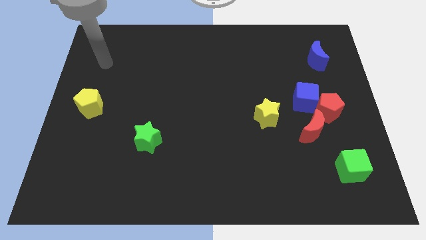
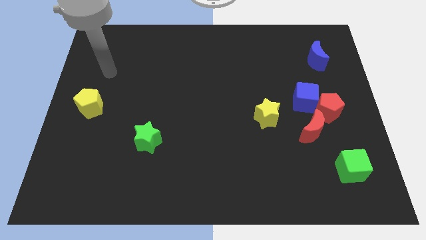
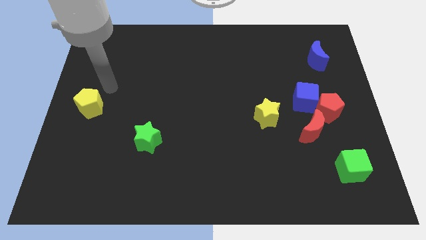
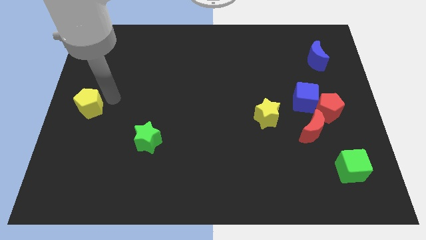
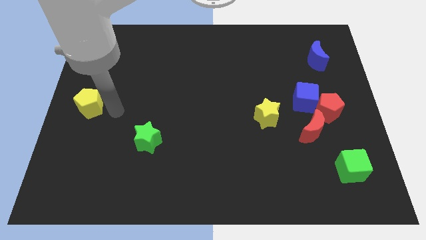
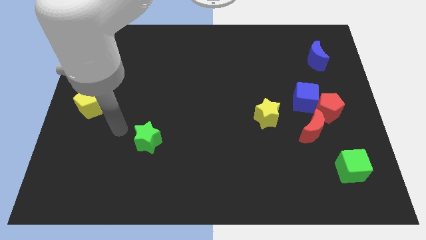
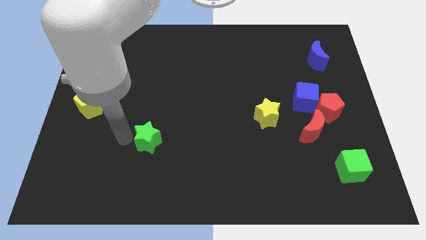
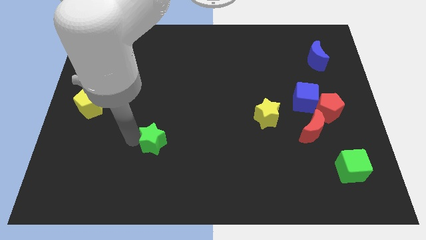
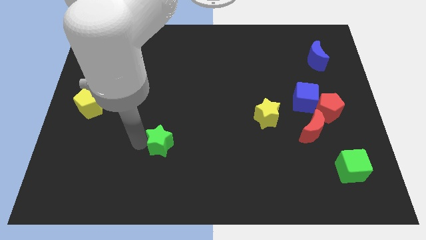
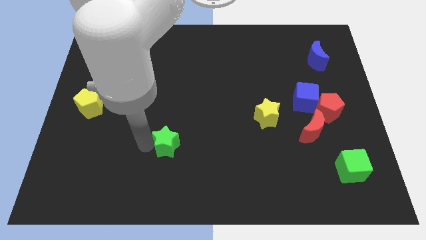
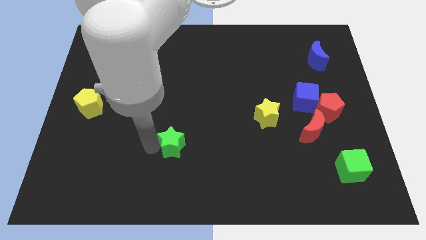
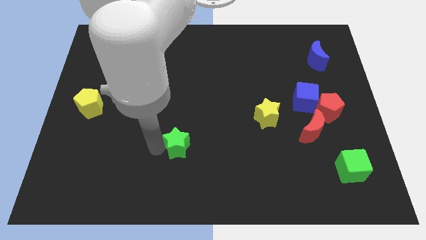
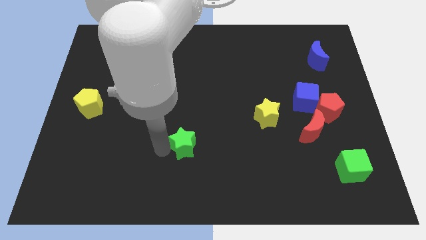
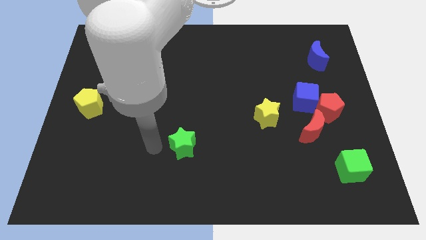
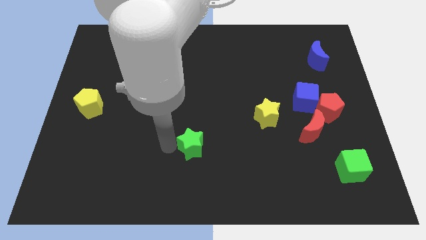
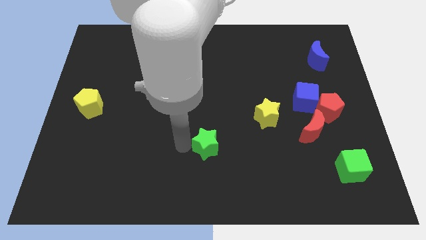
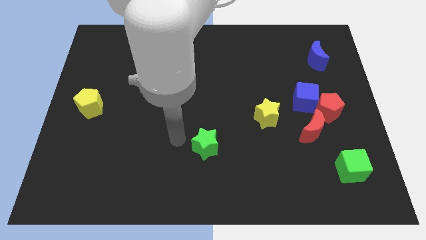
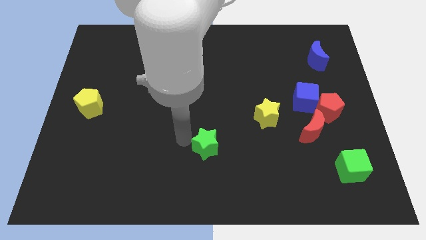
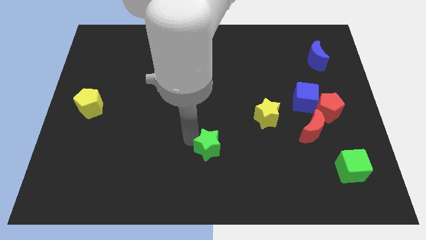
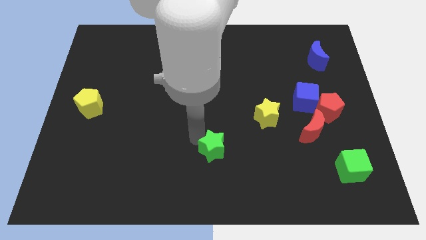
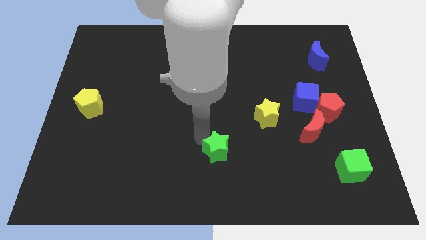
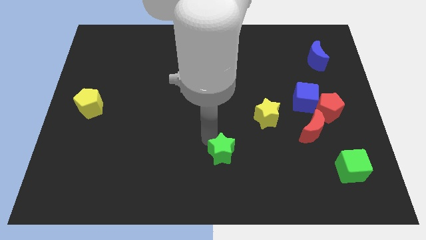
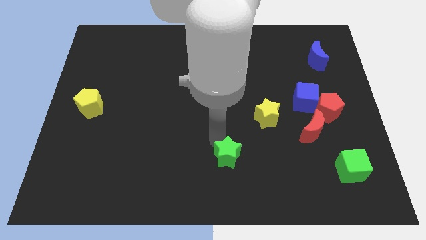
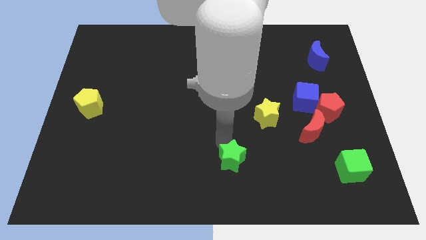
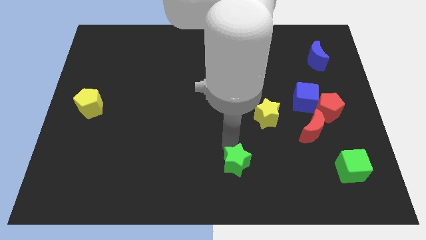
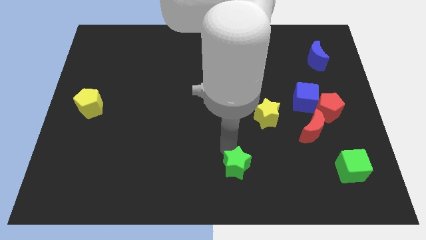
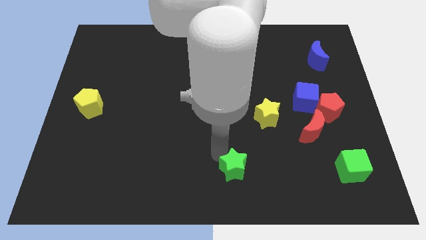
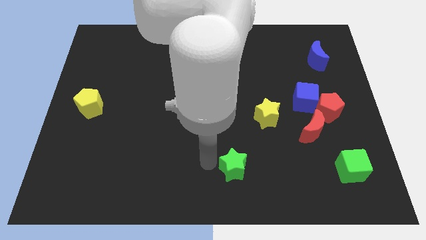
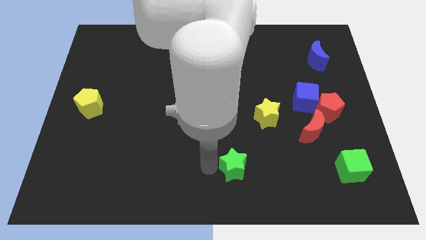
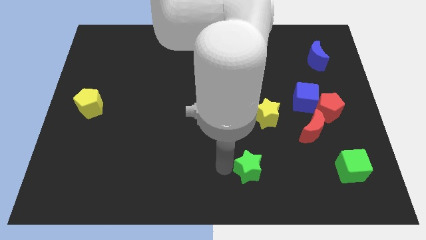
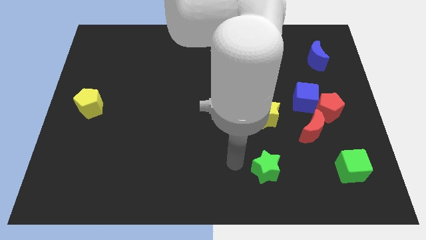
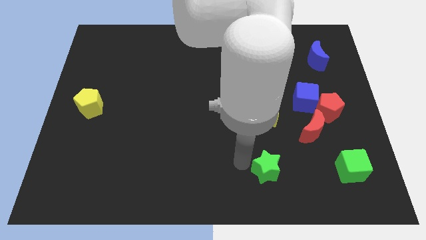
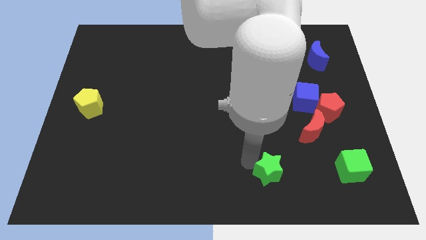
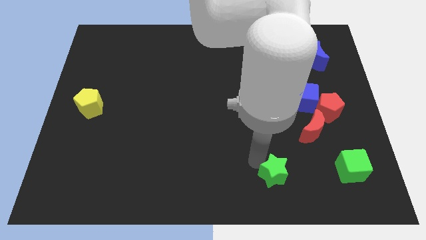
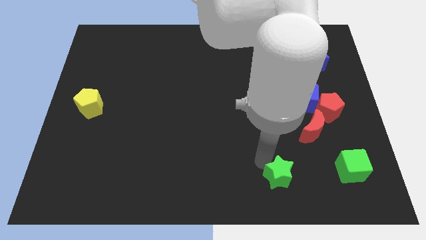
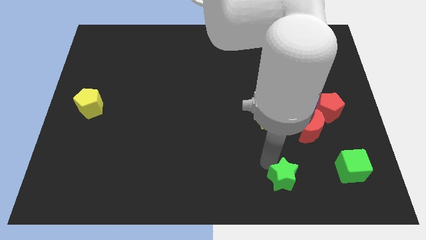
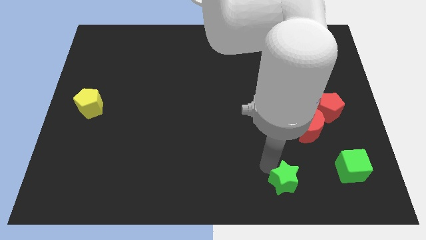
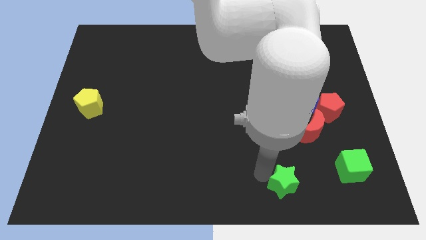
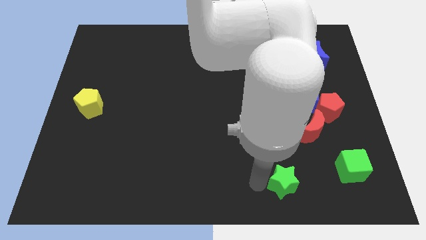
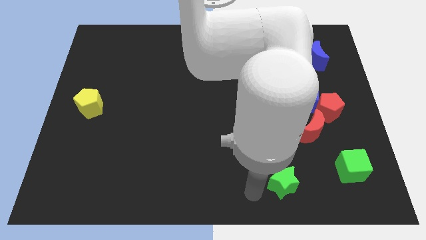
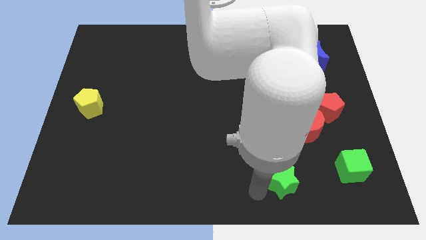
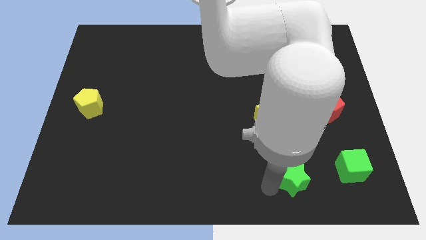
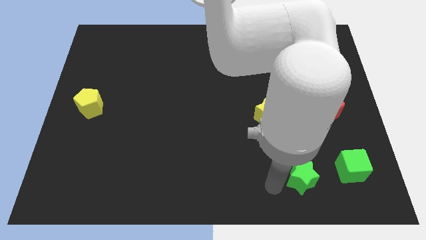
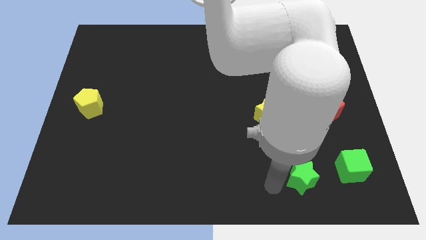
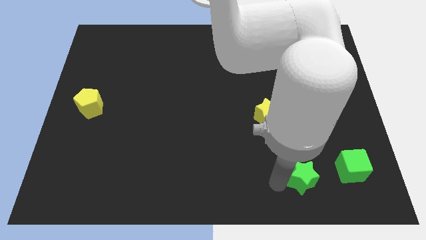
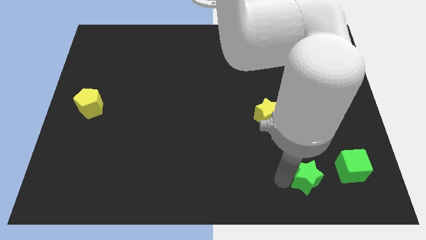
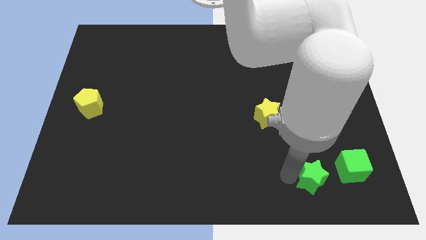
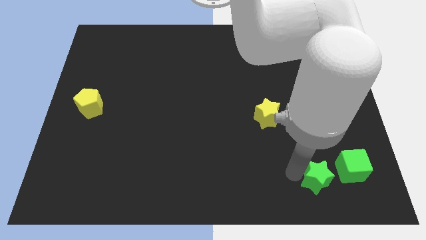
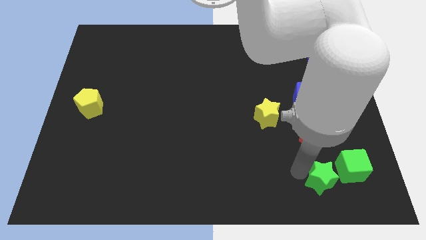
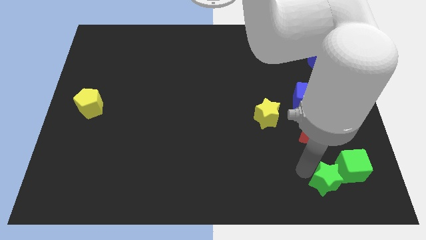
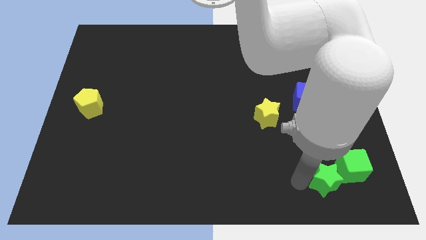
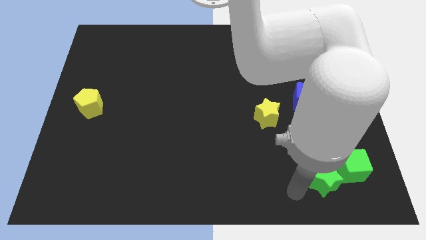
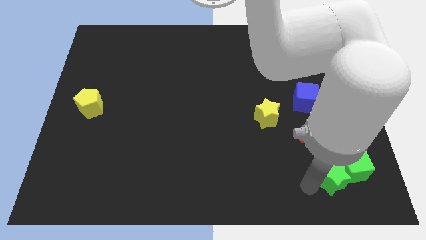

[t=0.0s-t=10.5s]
slide the green star to the green cube

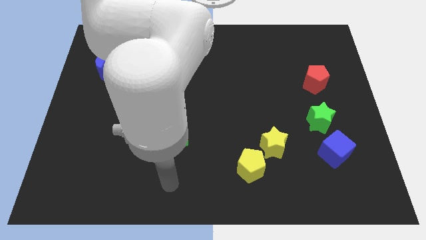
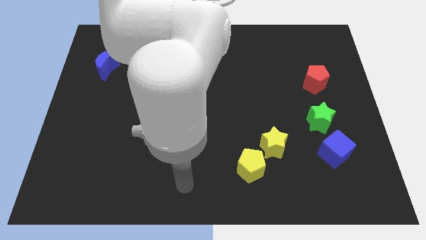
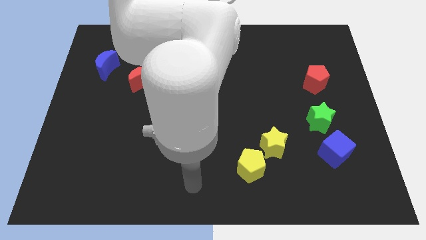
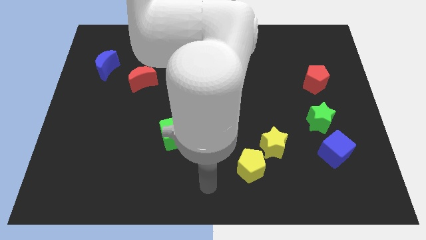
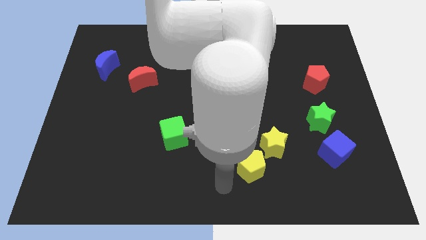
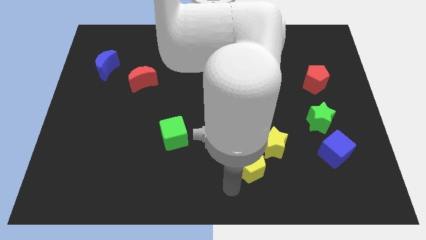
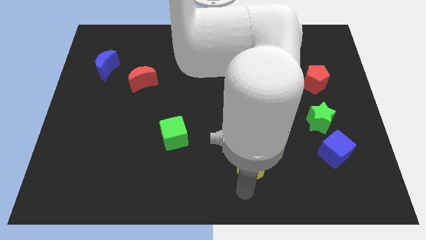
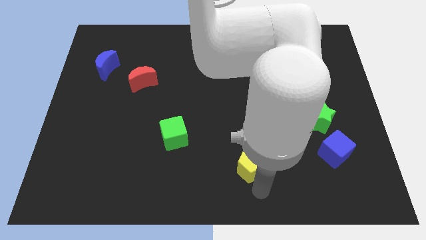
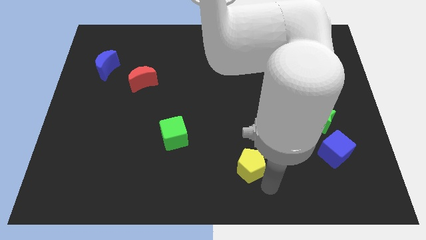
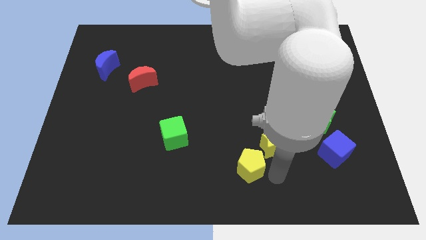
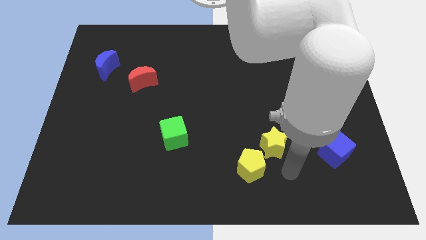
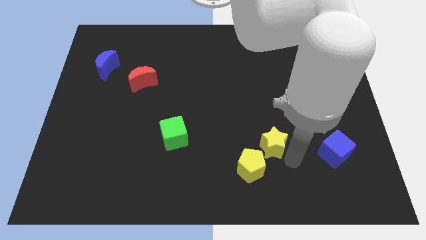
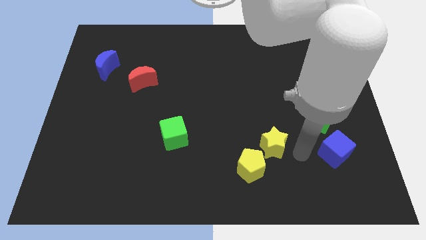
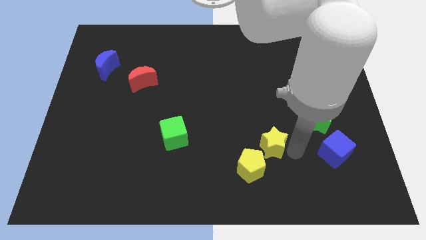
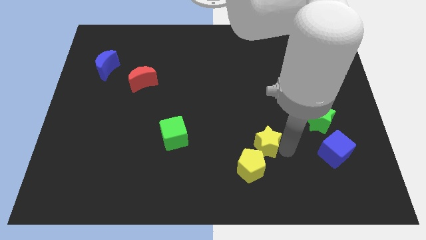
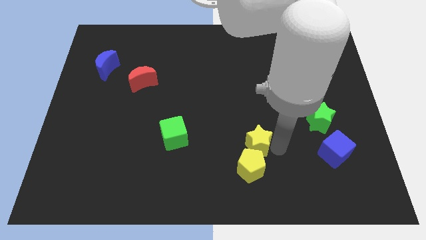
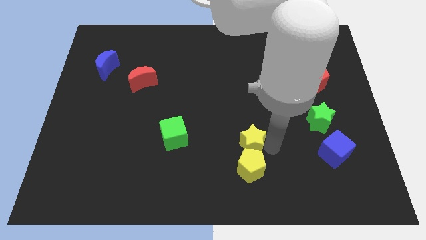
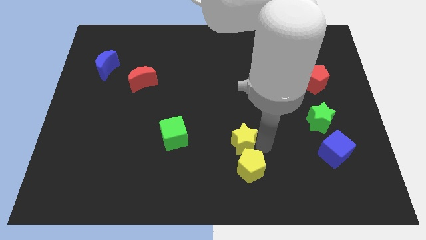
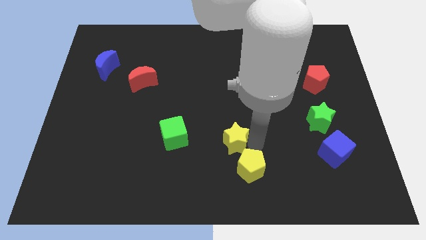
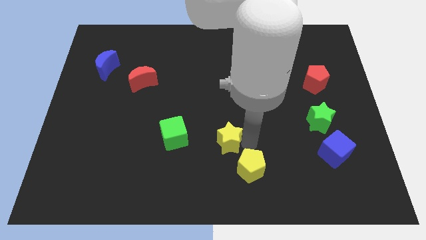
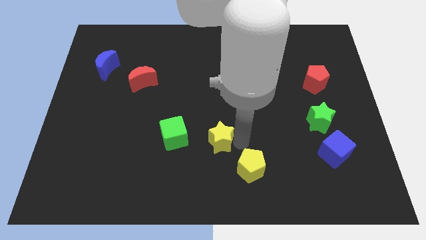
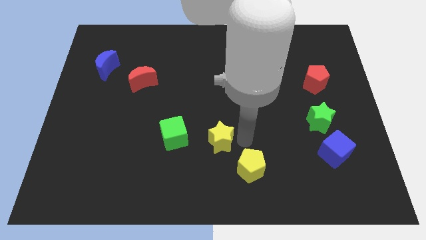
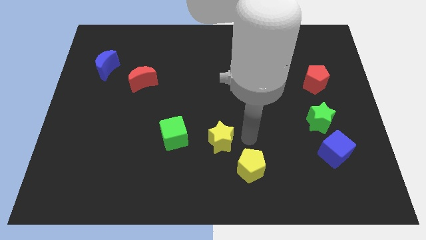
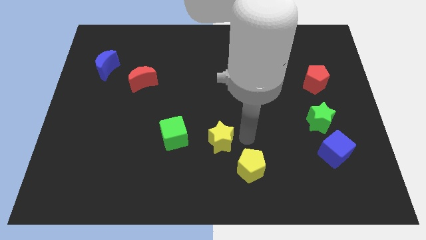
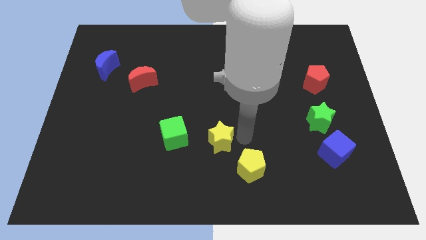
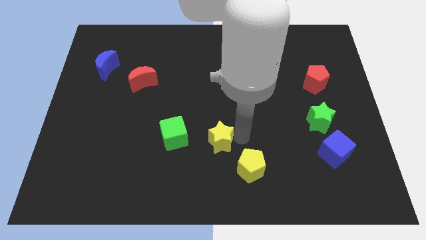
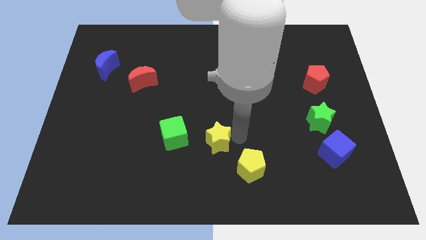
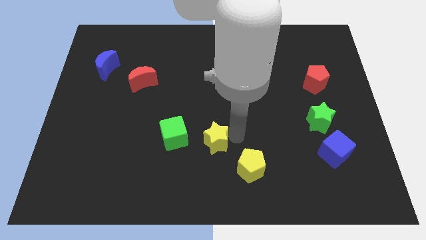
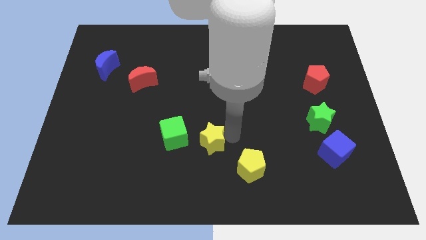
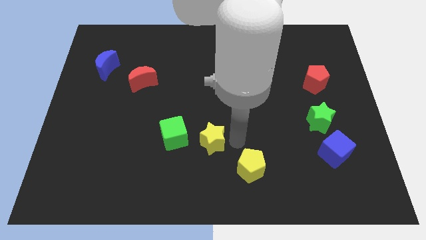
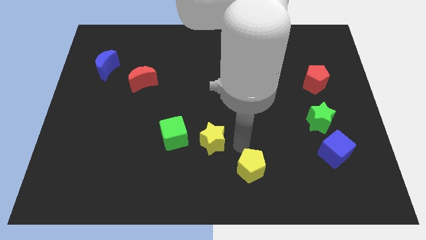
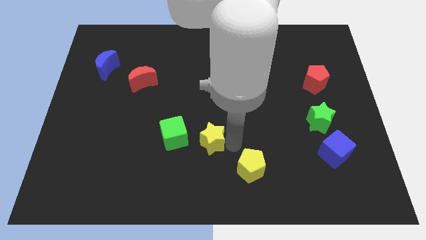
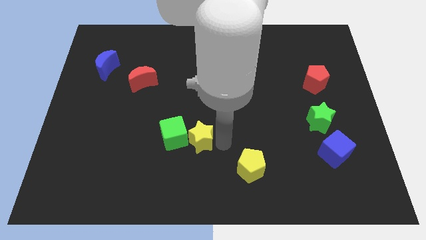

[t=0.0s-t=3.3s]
move the yellow star towards the green cube
